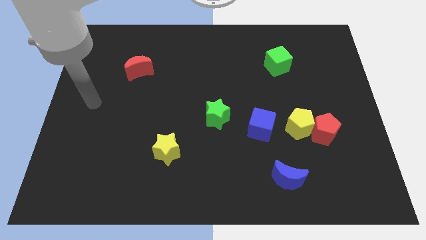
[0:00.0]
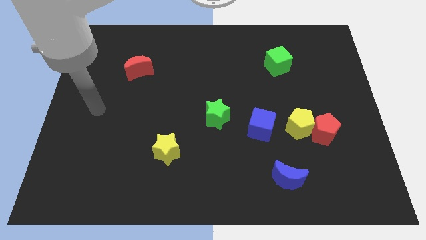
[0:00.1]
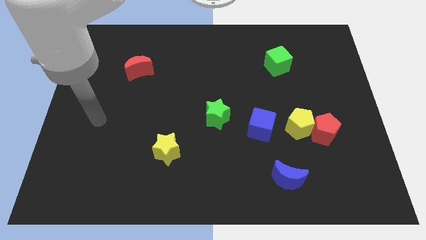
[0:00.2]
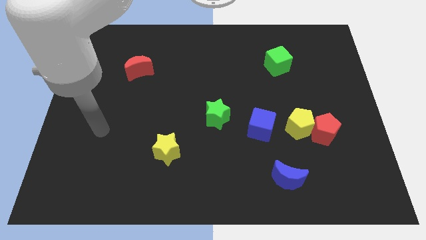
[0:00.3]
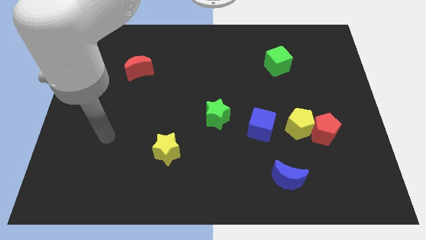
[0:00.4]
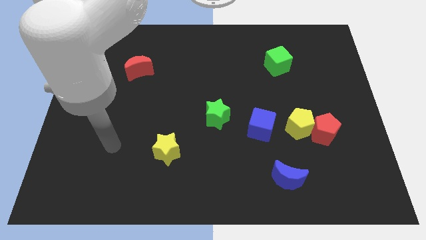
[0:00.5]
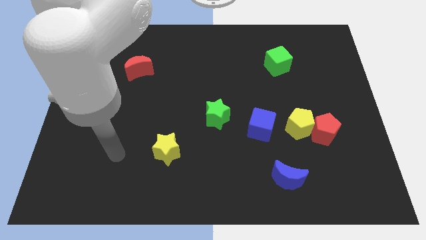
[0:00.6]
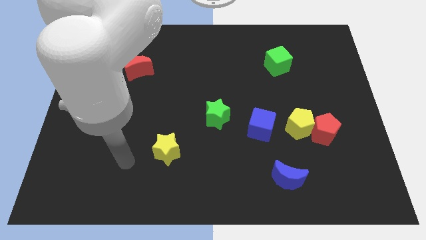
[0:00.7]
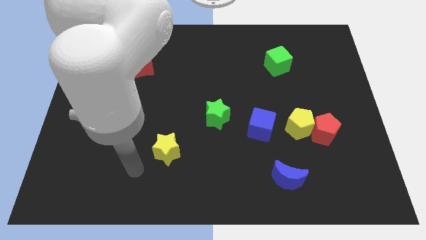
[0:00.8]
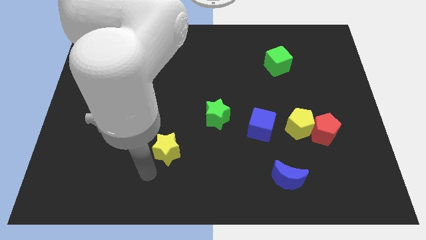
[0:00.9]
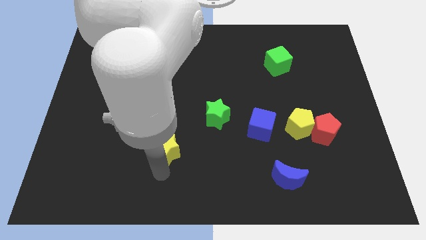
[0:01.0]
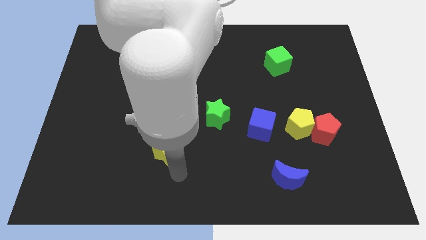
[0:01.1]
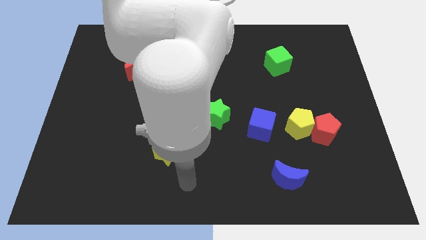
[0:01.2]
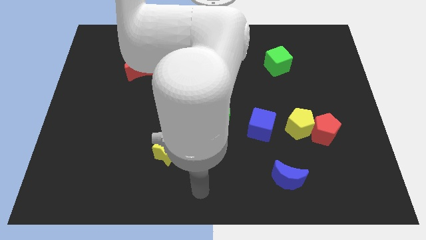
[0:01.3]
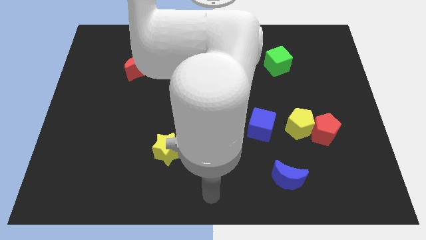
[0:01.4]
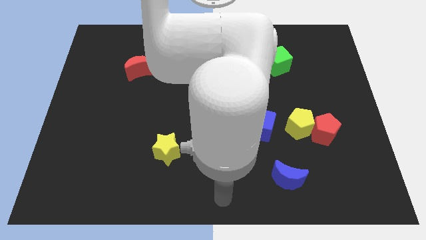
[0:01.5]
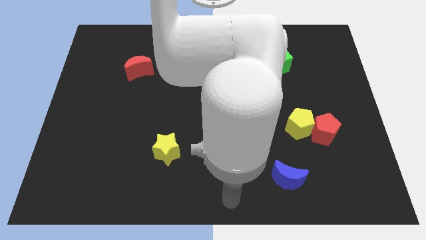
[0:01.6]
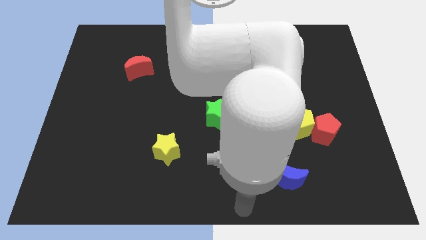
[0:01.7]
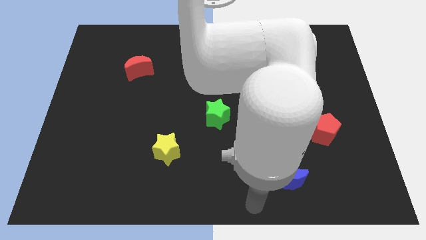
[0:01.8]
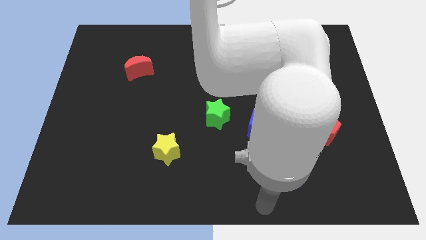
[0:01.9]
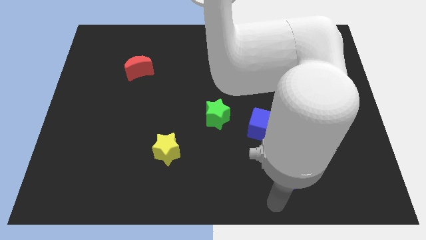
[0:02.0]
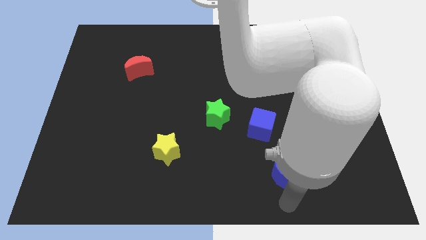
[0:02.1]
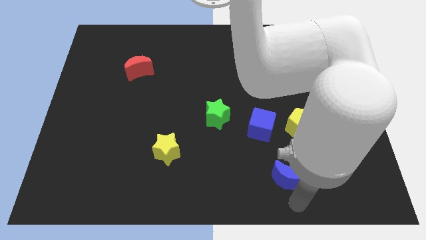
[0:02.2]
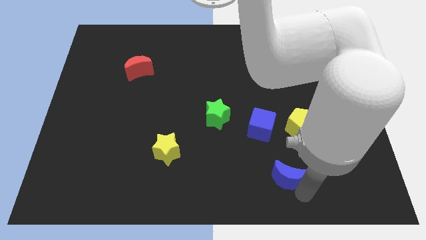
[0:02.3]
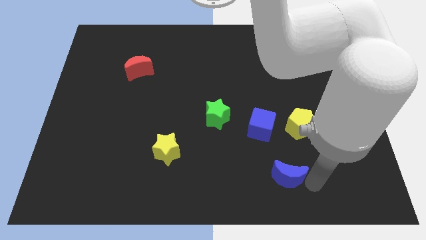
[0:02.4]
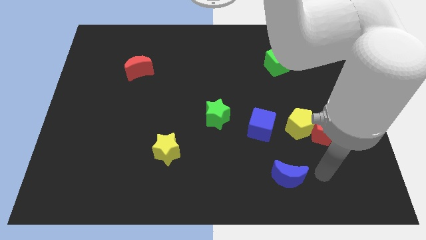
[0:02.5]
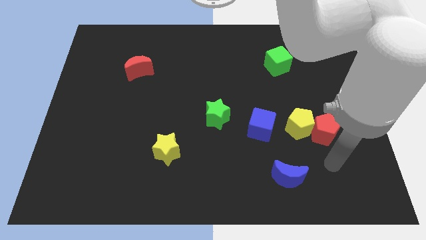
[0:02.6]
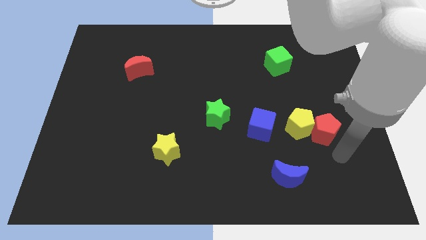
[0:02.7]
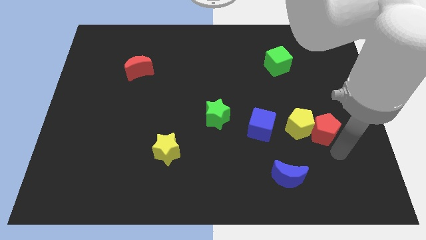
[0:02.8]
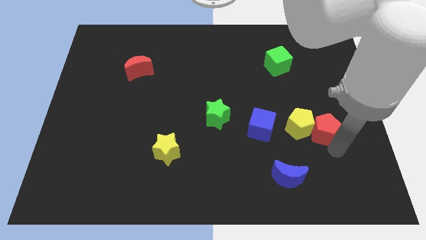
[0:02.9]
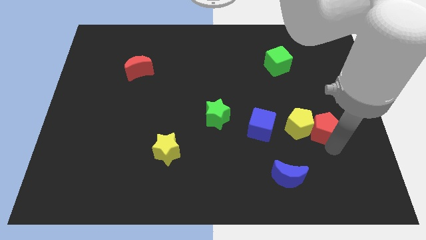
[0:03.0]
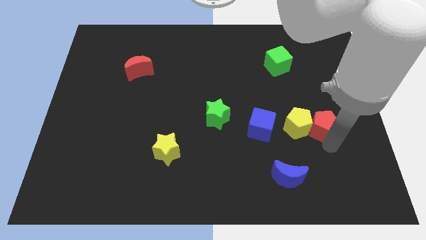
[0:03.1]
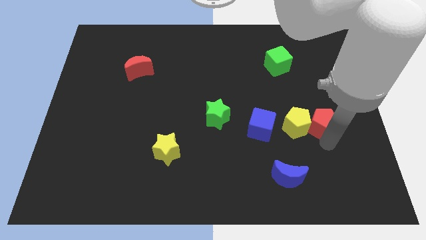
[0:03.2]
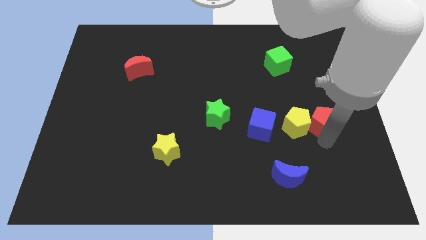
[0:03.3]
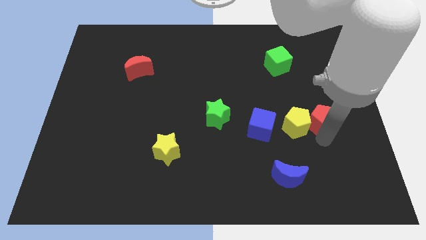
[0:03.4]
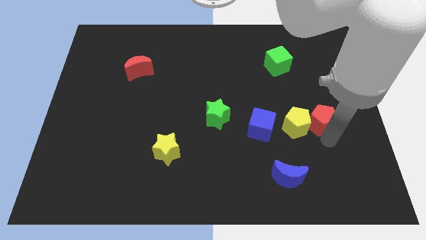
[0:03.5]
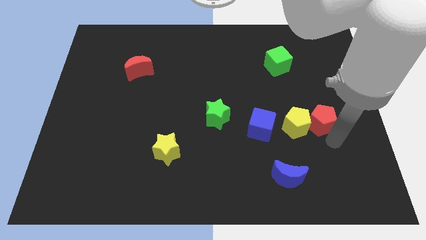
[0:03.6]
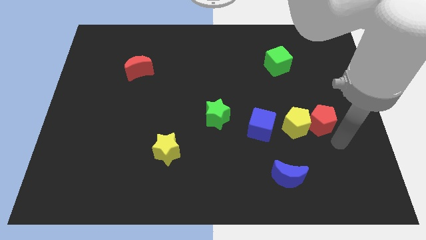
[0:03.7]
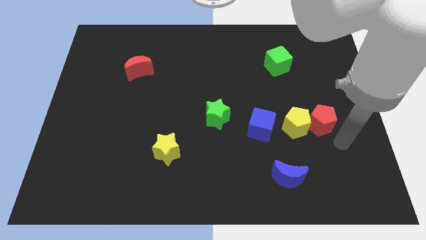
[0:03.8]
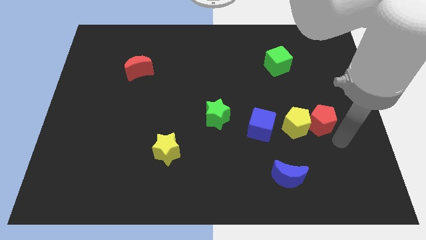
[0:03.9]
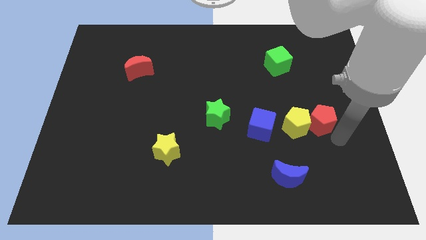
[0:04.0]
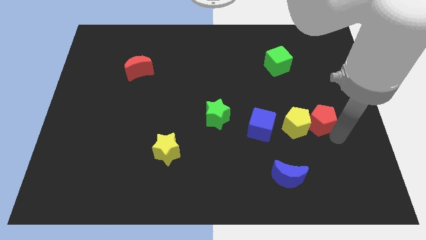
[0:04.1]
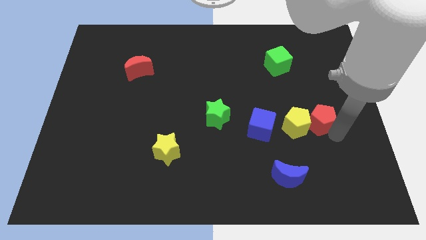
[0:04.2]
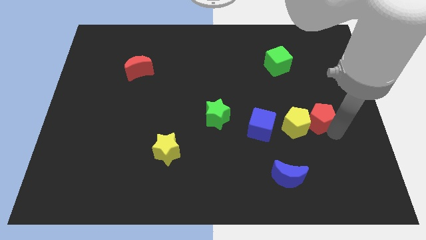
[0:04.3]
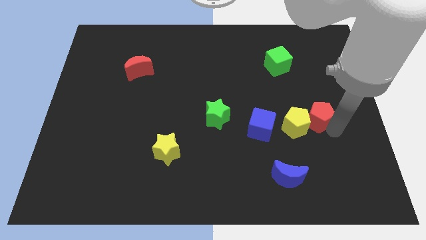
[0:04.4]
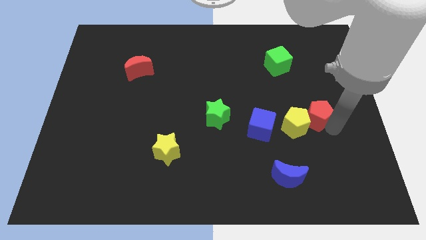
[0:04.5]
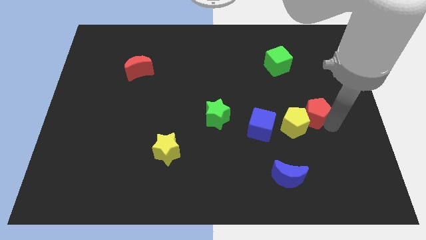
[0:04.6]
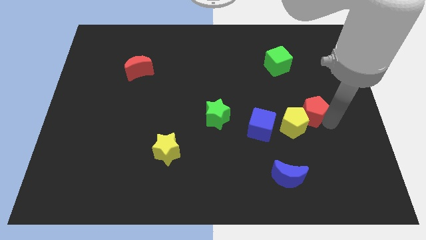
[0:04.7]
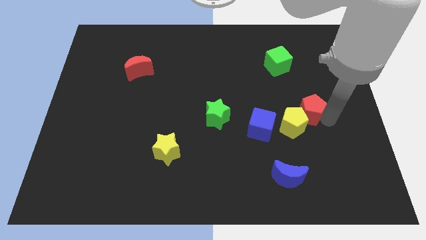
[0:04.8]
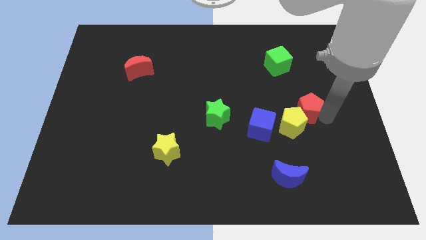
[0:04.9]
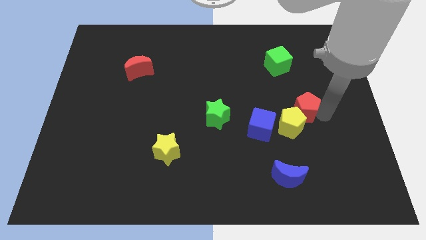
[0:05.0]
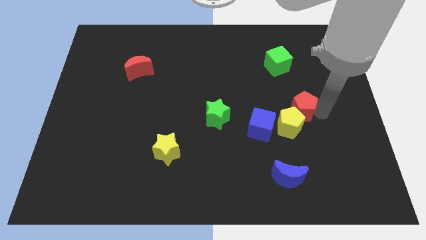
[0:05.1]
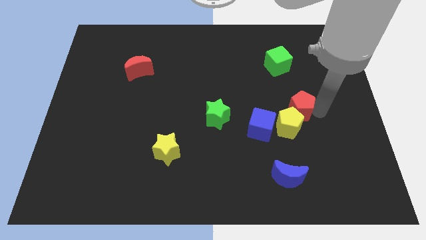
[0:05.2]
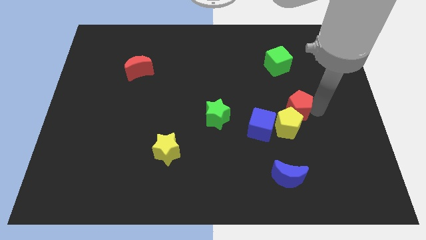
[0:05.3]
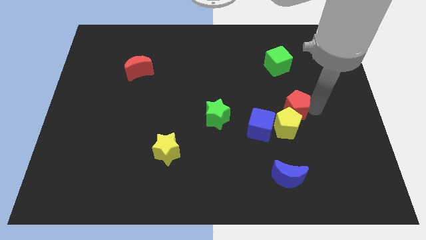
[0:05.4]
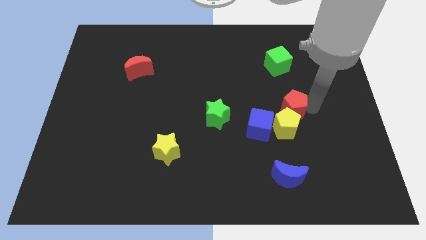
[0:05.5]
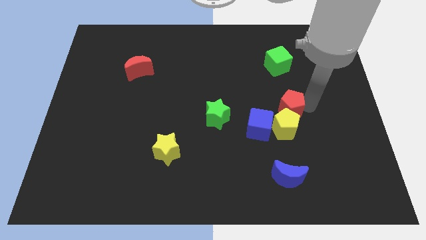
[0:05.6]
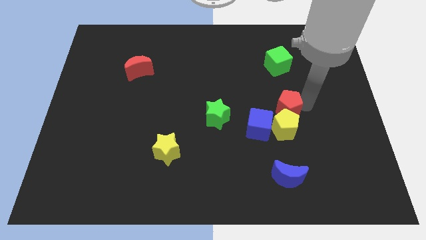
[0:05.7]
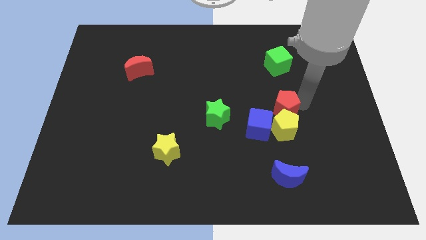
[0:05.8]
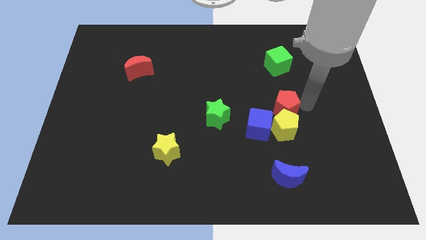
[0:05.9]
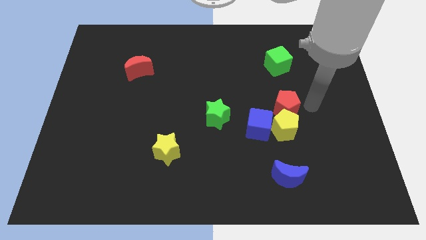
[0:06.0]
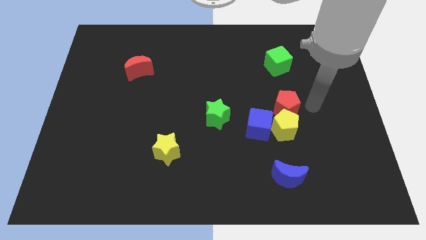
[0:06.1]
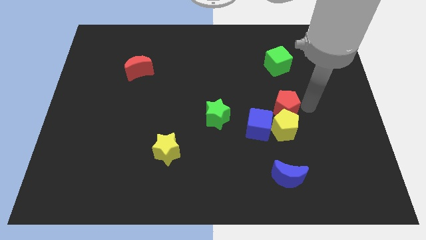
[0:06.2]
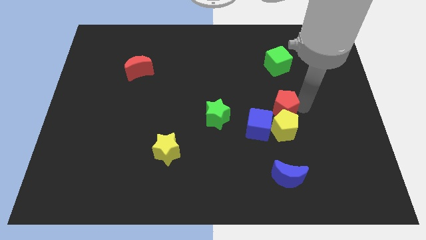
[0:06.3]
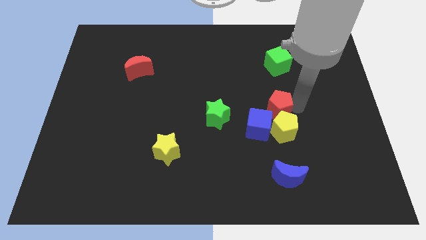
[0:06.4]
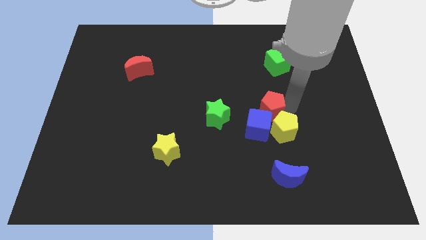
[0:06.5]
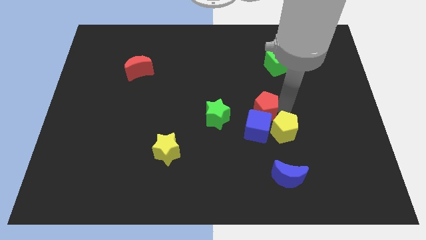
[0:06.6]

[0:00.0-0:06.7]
put the red pentagon to the center
